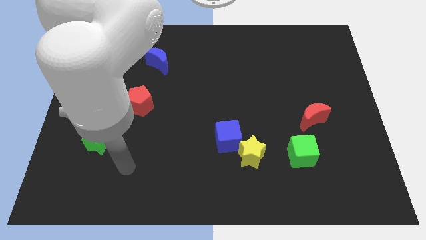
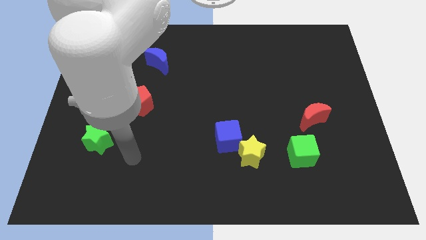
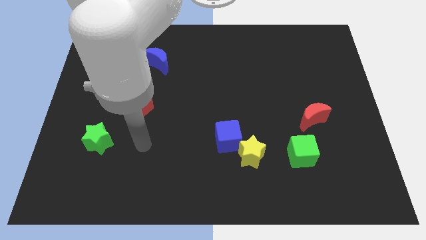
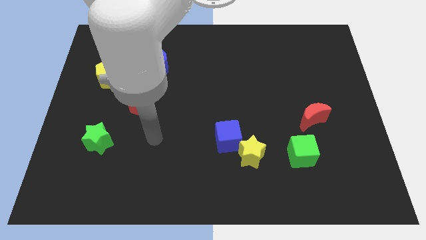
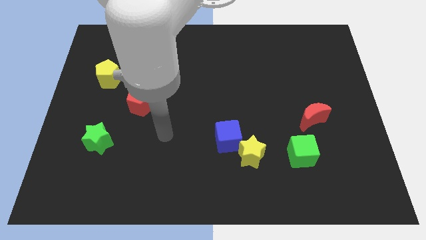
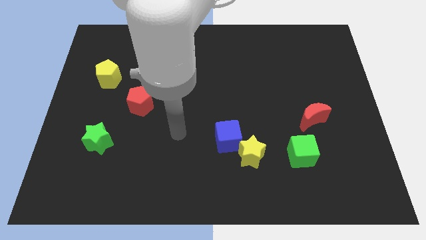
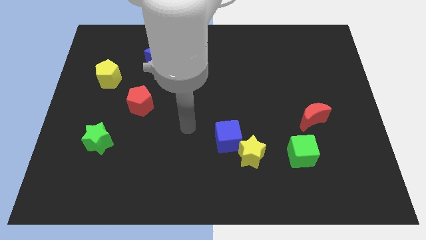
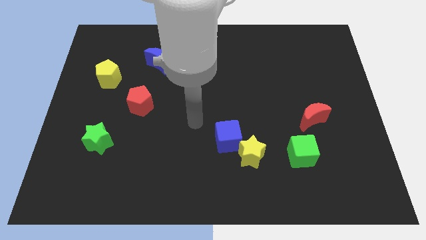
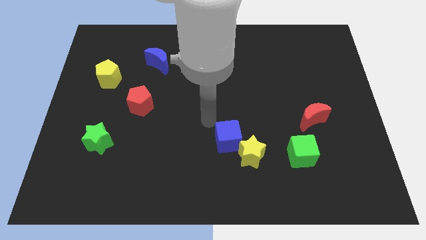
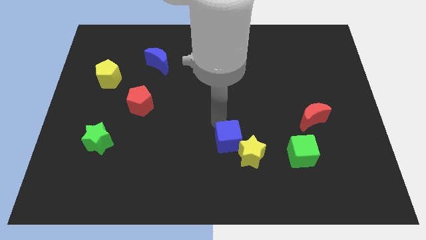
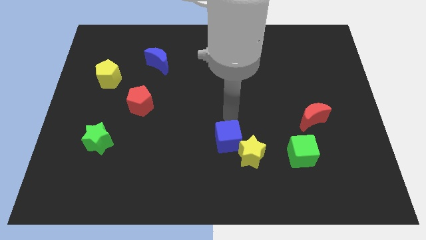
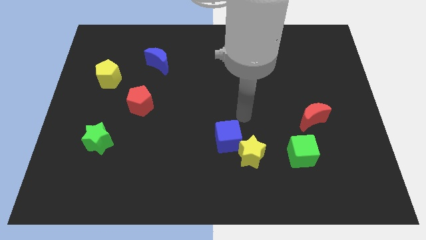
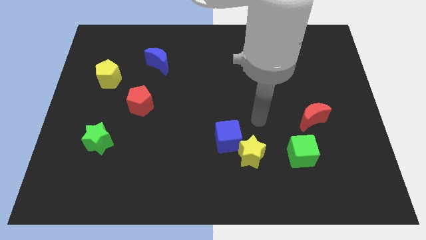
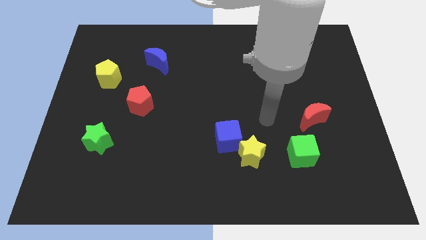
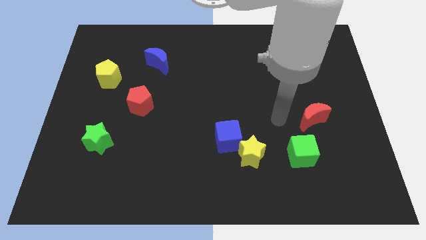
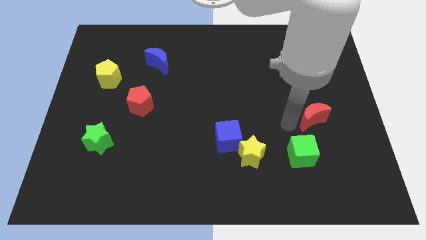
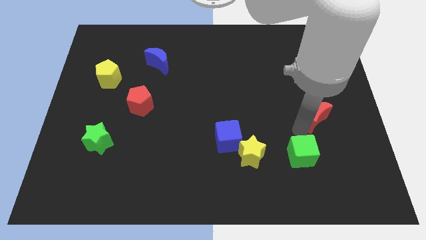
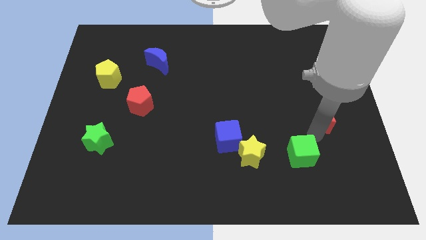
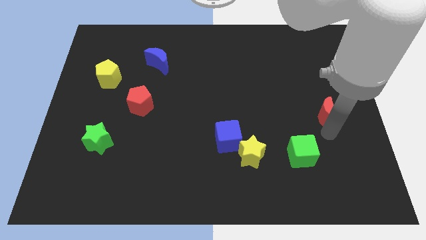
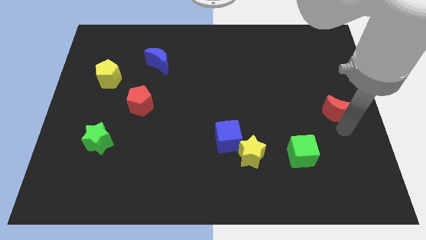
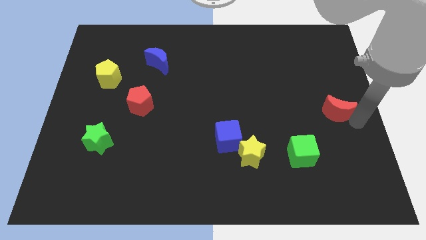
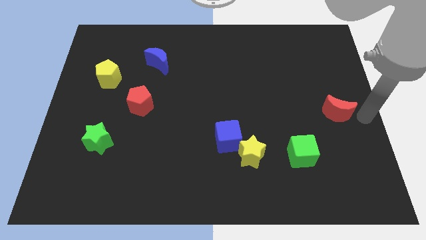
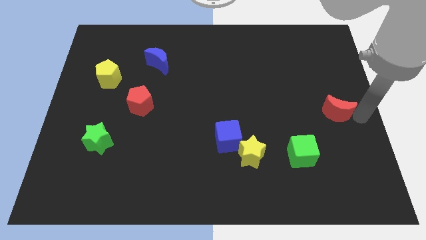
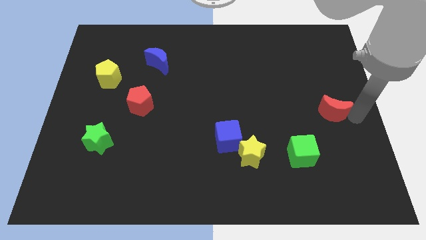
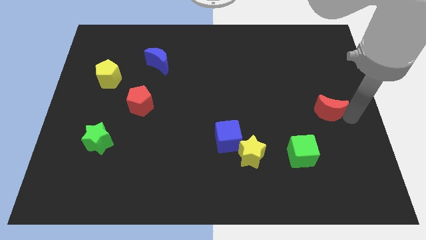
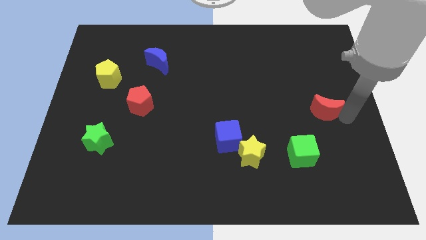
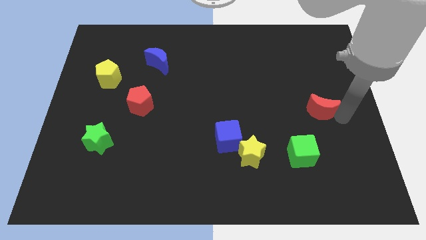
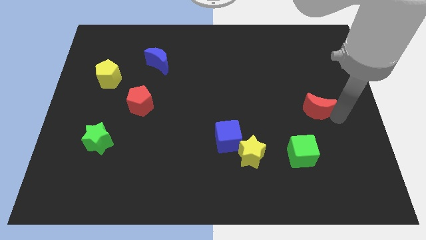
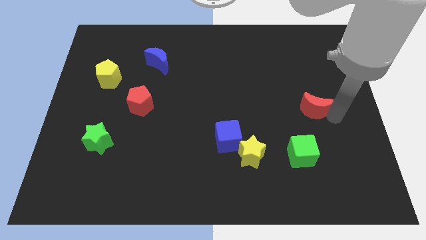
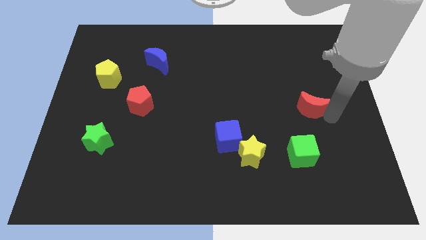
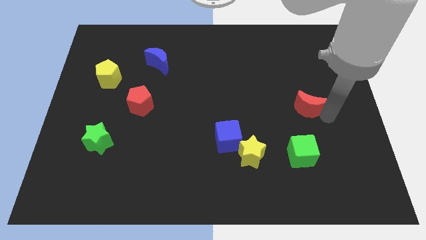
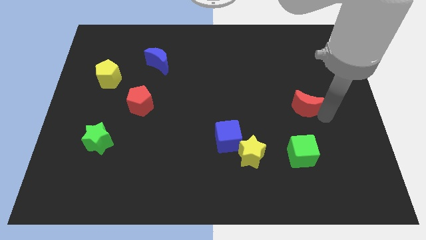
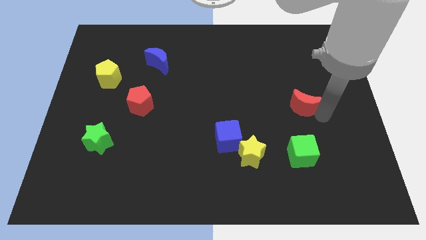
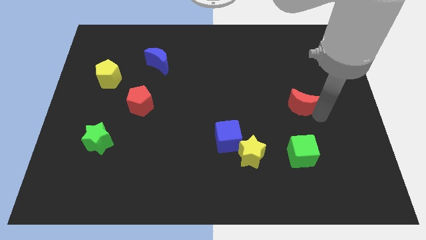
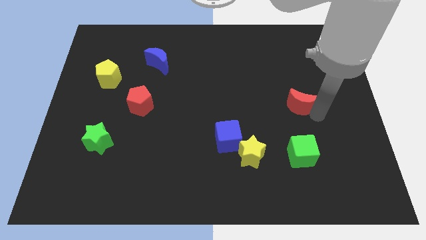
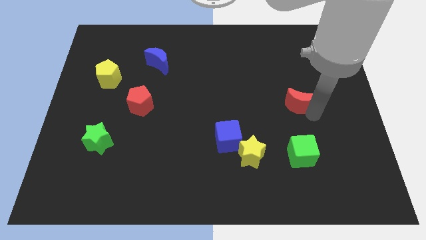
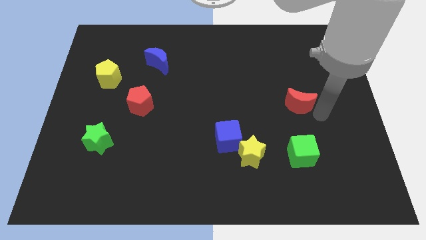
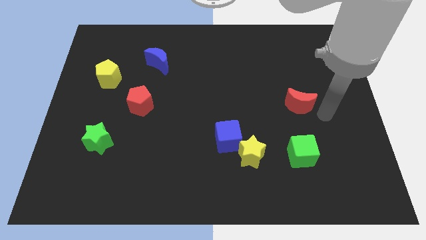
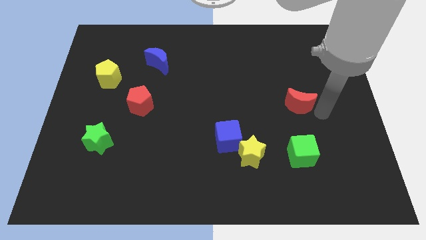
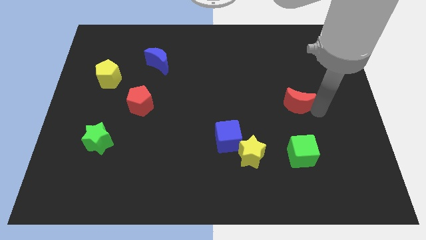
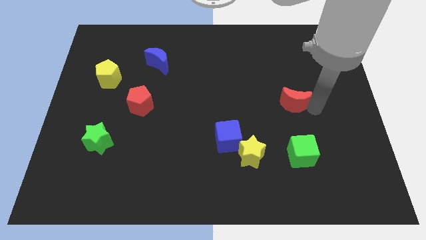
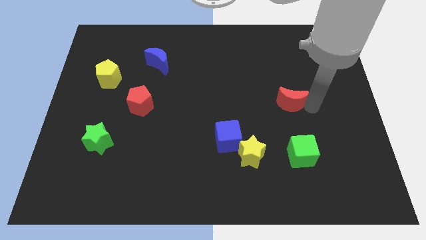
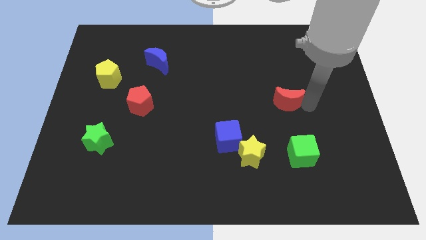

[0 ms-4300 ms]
slide the red moon slightly up and then left

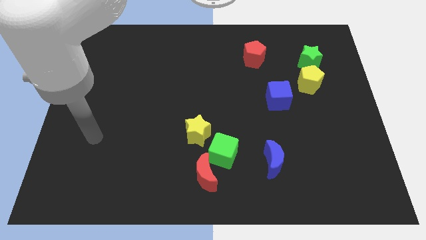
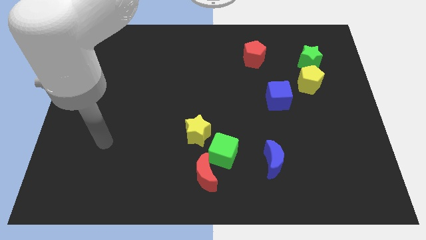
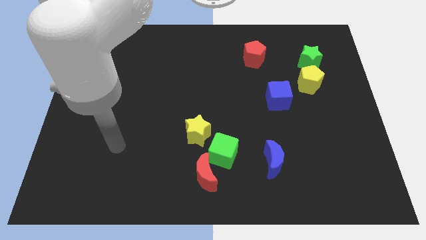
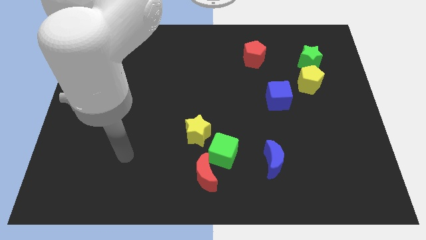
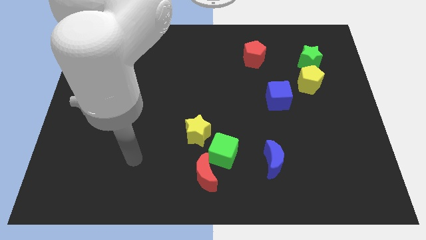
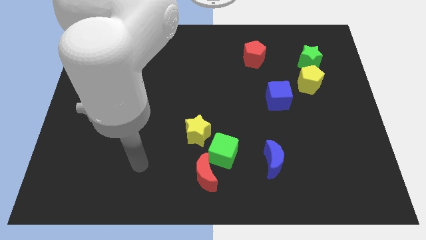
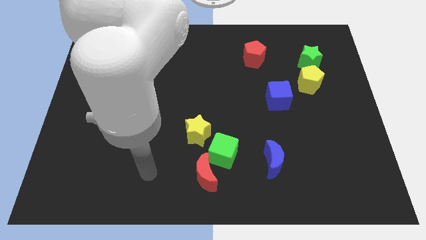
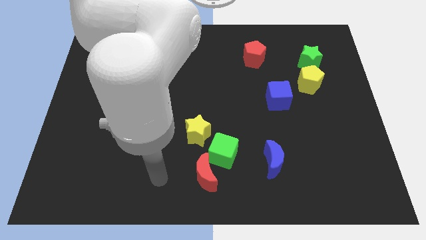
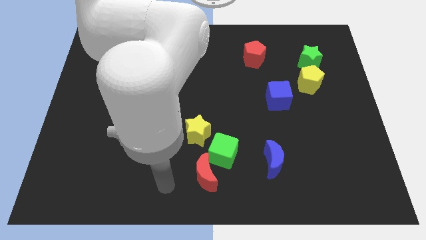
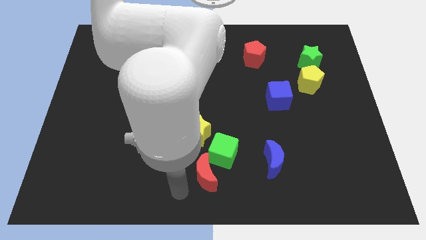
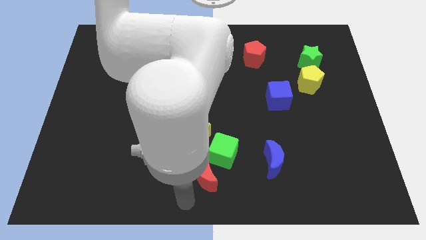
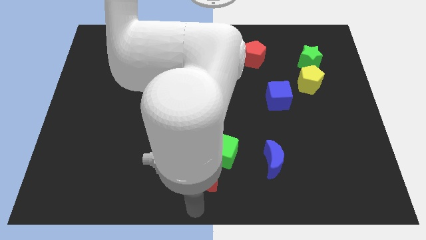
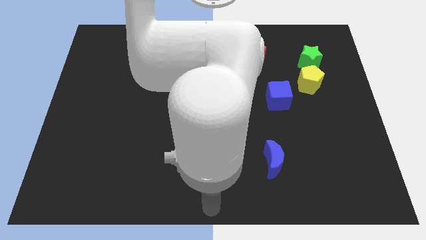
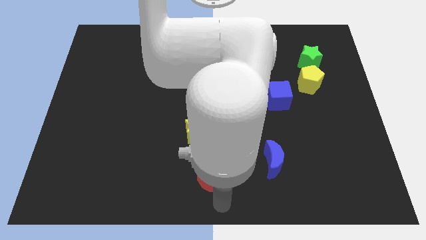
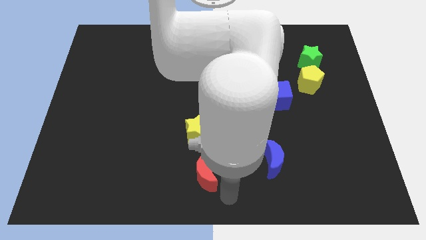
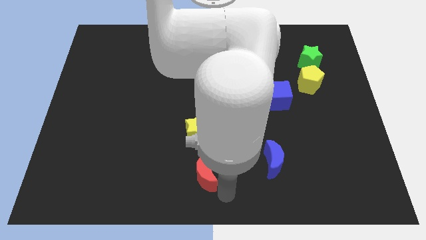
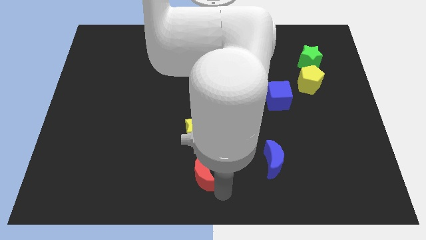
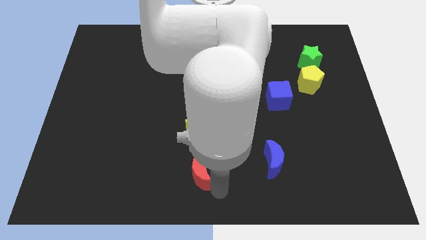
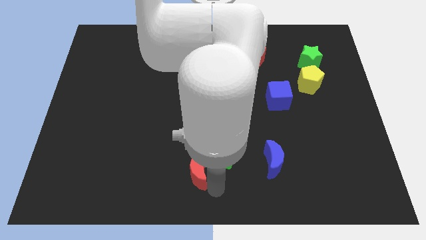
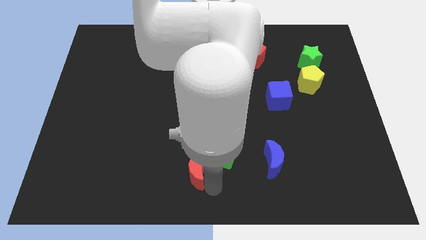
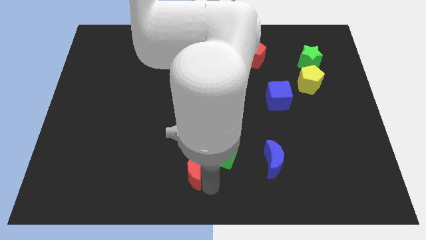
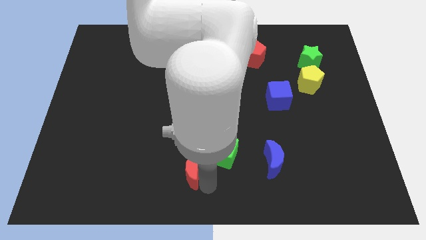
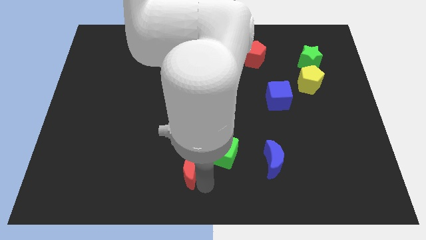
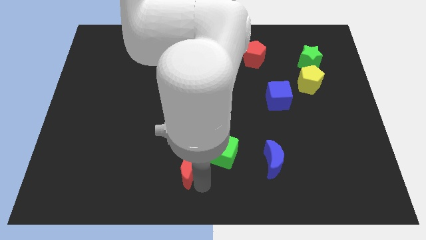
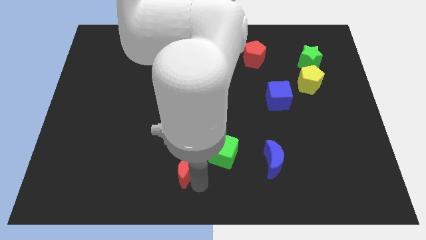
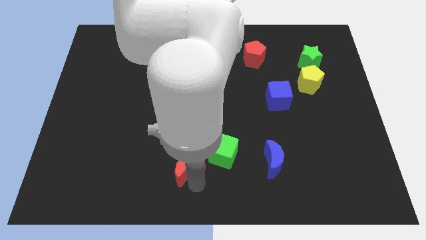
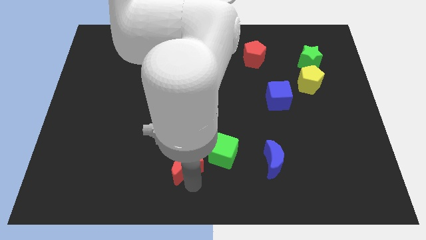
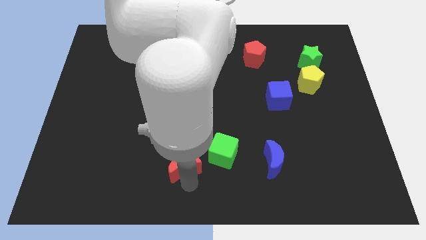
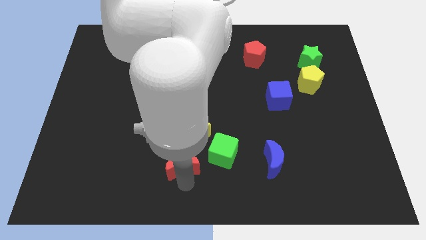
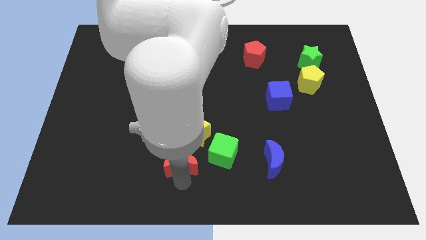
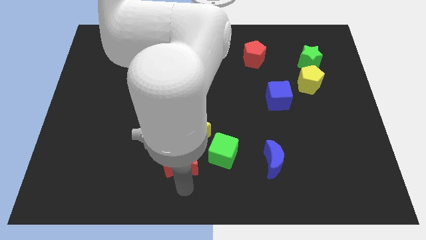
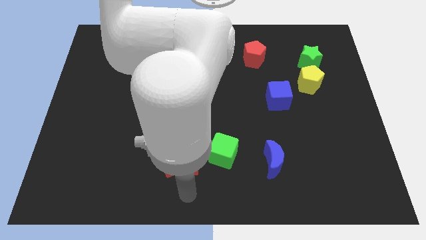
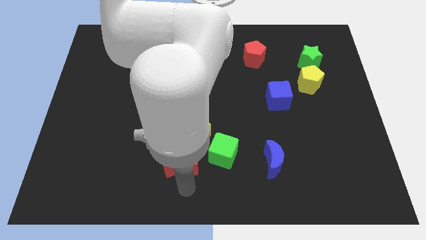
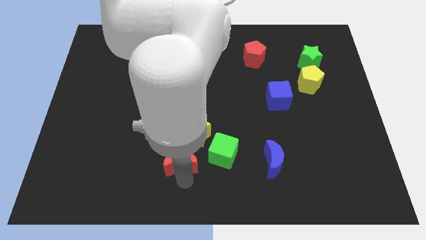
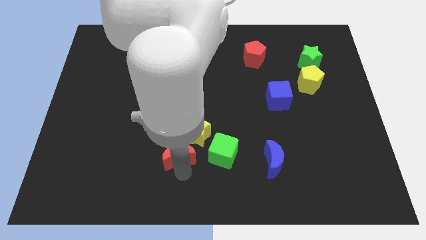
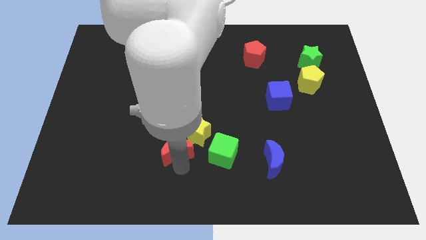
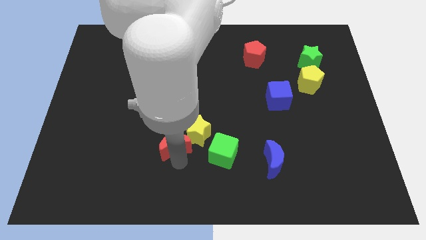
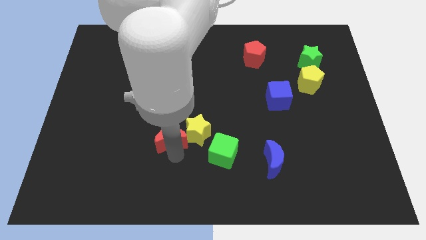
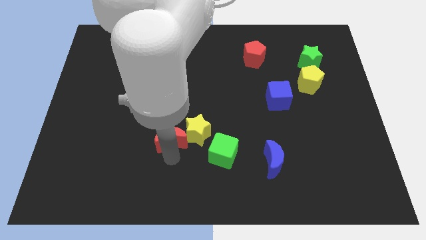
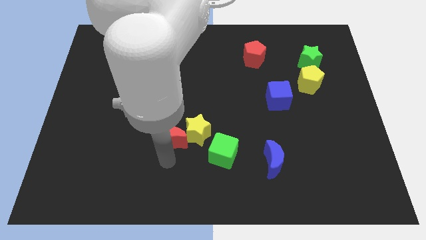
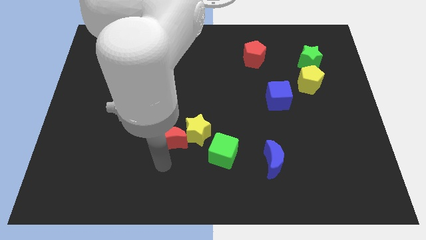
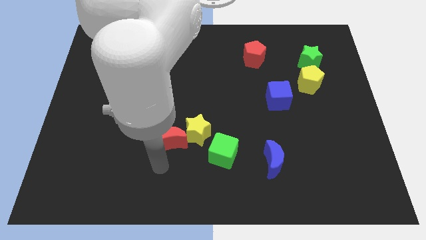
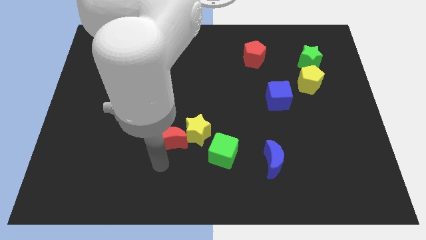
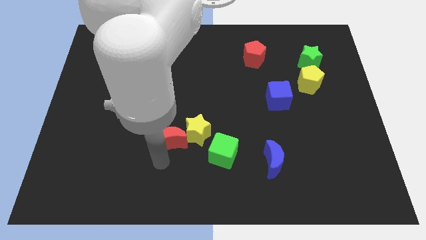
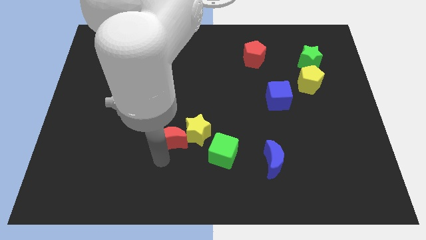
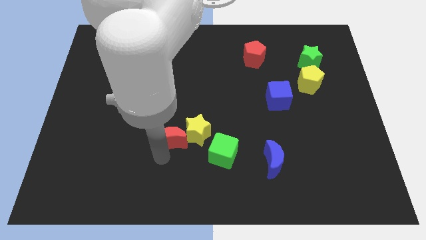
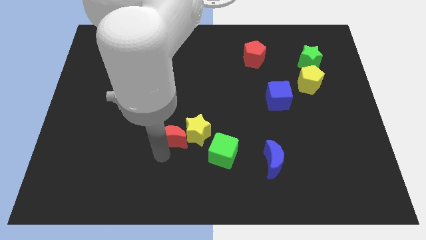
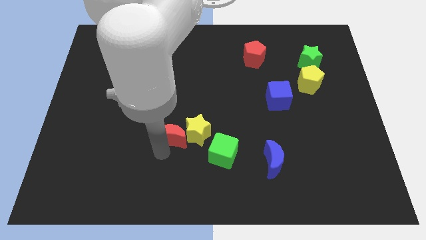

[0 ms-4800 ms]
slide the red moon upwards somewhat
